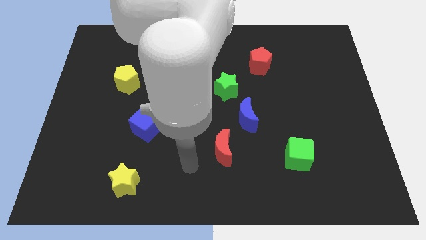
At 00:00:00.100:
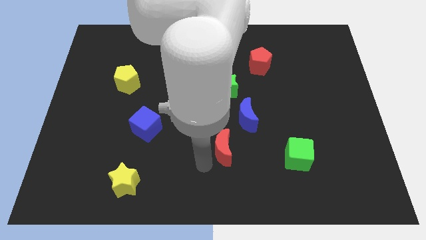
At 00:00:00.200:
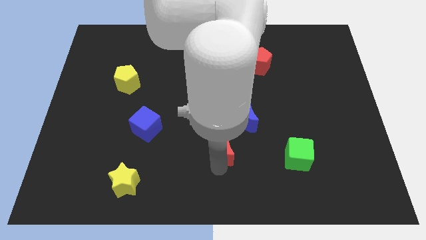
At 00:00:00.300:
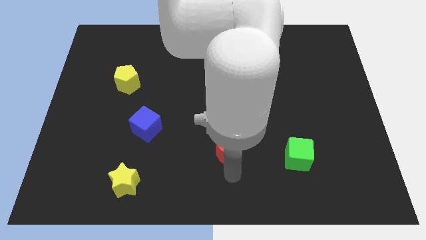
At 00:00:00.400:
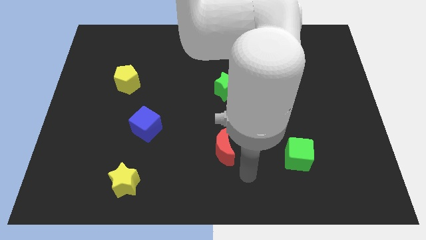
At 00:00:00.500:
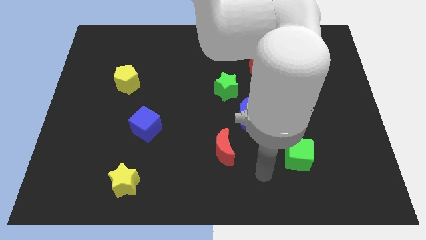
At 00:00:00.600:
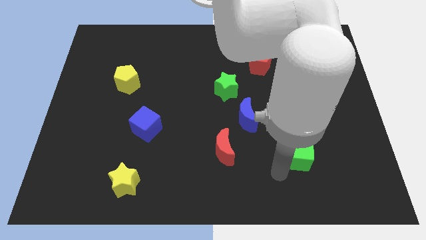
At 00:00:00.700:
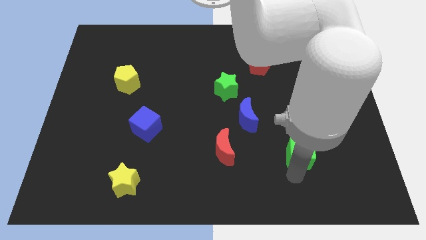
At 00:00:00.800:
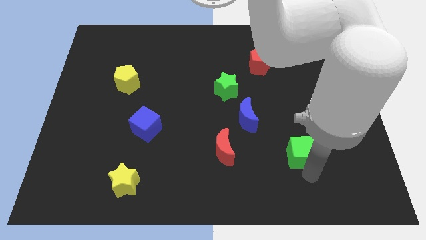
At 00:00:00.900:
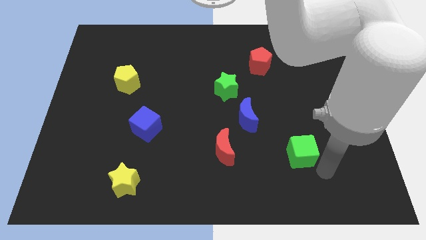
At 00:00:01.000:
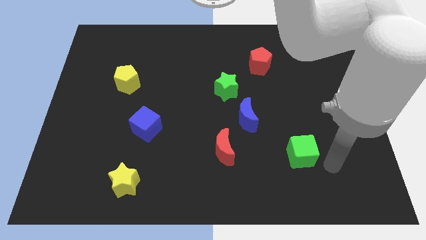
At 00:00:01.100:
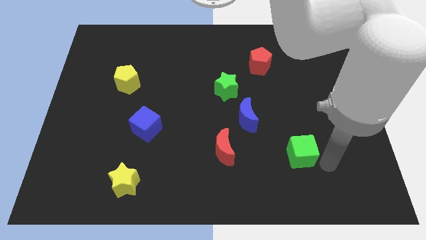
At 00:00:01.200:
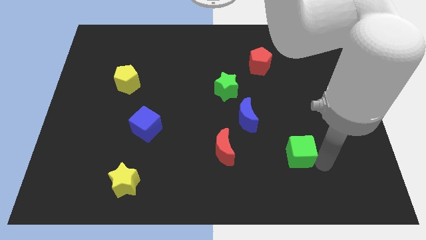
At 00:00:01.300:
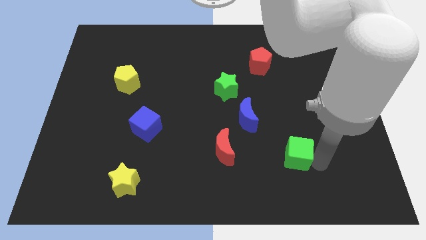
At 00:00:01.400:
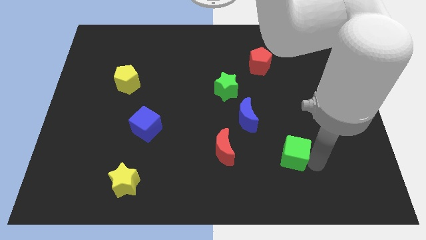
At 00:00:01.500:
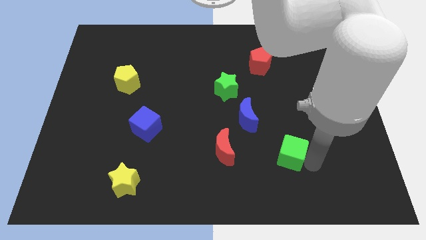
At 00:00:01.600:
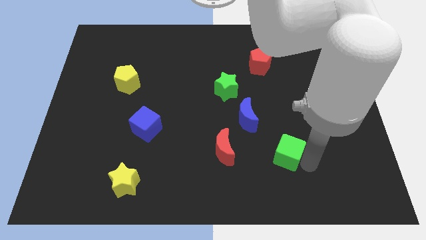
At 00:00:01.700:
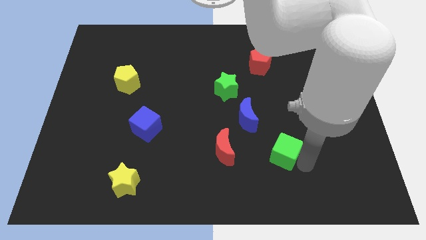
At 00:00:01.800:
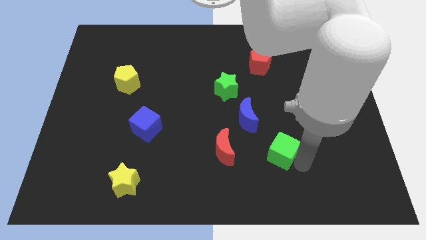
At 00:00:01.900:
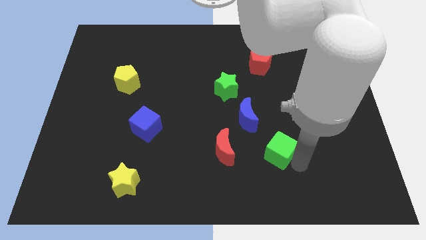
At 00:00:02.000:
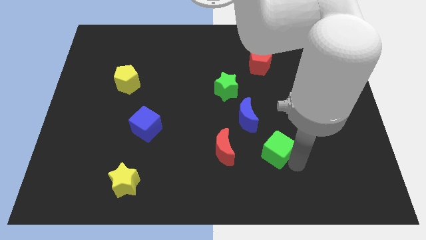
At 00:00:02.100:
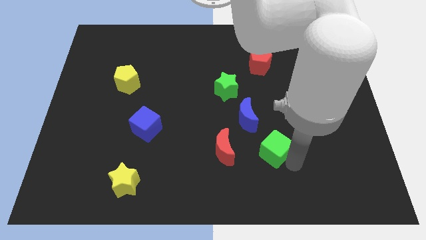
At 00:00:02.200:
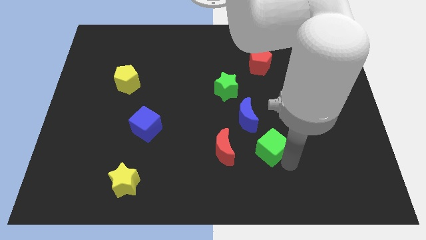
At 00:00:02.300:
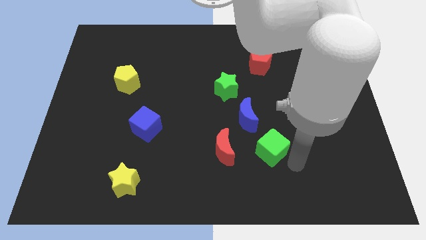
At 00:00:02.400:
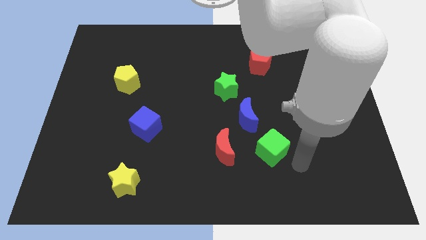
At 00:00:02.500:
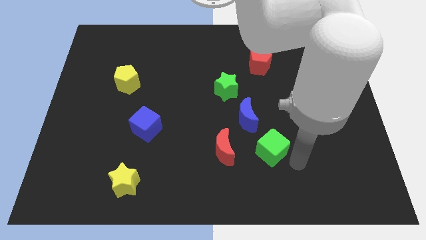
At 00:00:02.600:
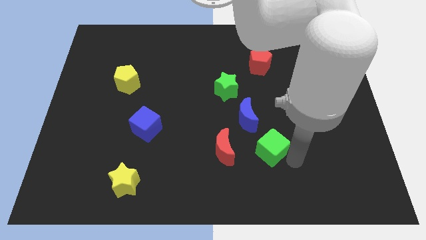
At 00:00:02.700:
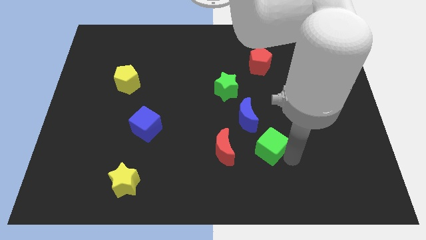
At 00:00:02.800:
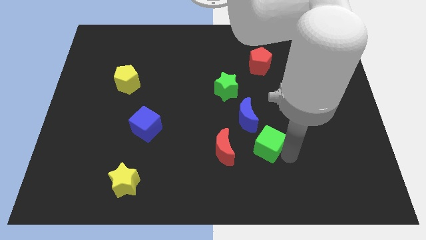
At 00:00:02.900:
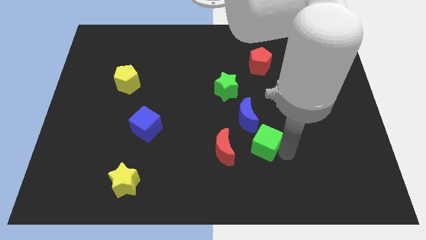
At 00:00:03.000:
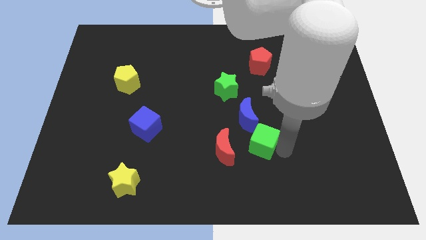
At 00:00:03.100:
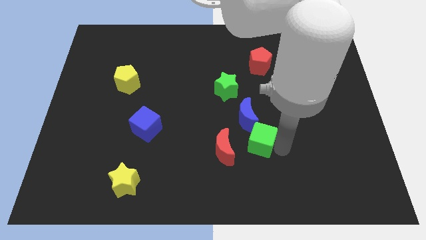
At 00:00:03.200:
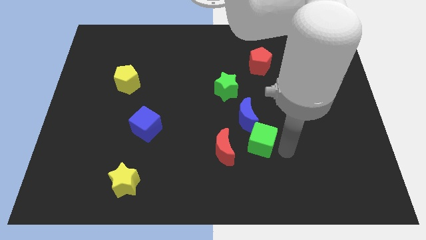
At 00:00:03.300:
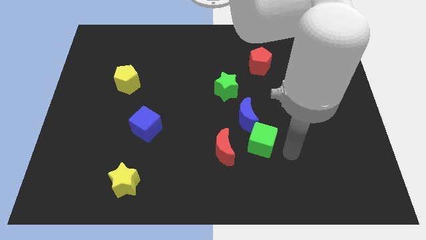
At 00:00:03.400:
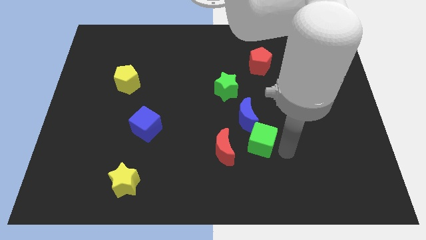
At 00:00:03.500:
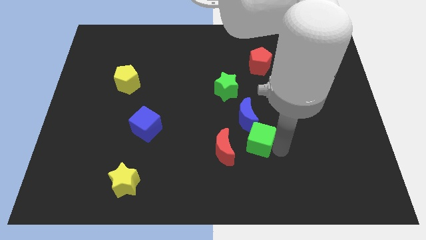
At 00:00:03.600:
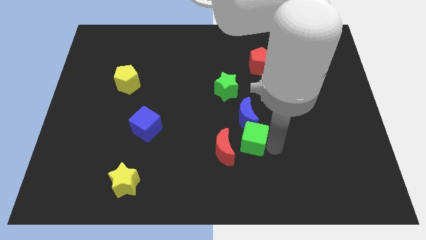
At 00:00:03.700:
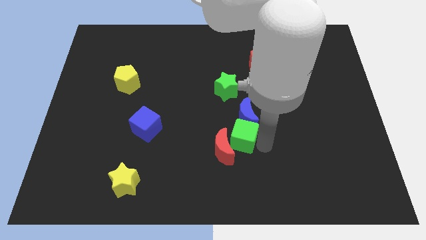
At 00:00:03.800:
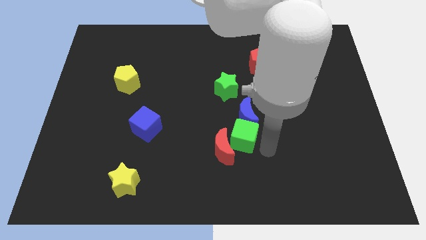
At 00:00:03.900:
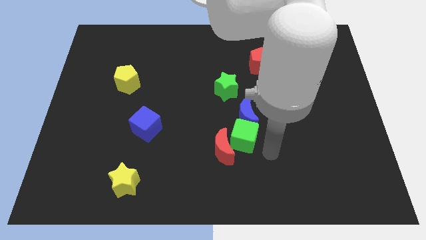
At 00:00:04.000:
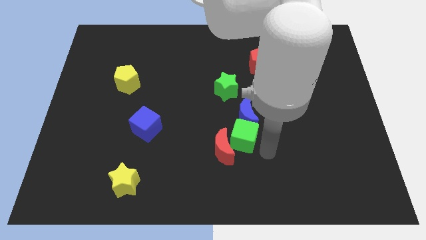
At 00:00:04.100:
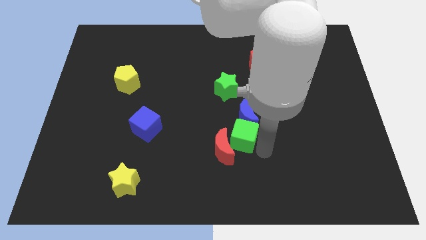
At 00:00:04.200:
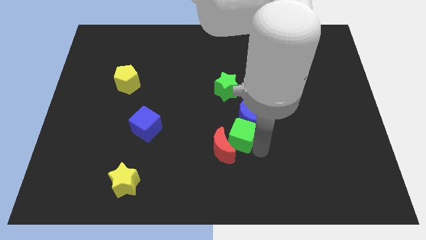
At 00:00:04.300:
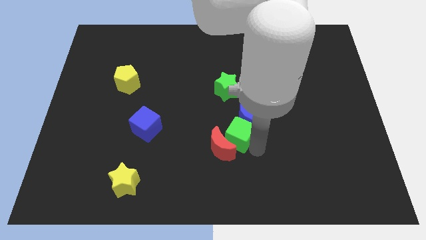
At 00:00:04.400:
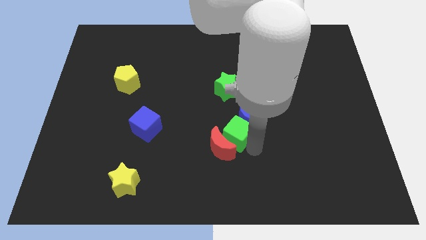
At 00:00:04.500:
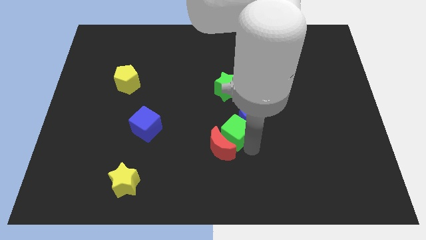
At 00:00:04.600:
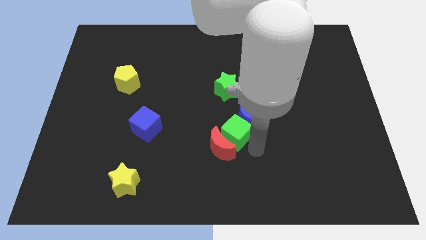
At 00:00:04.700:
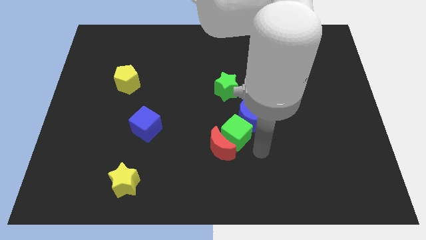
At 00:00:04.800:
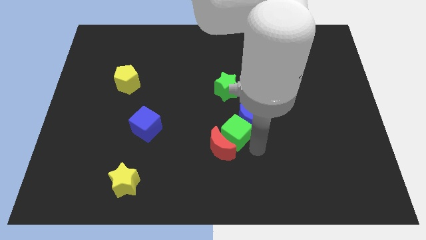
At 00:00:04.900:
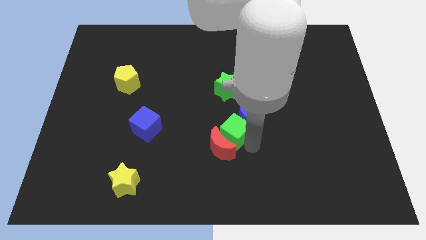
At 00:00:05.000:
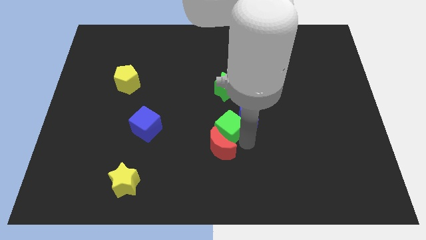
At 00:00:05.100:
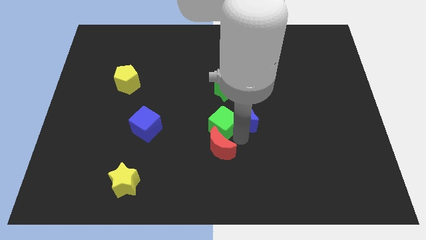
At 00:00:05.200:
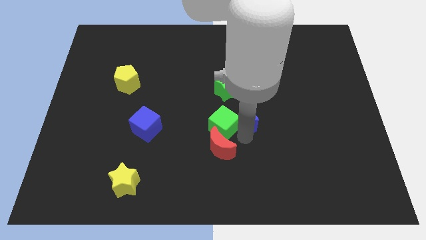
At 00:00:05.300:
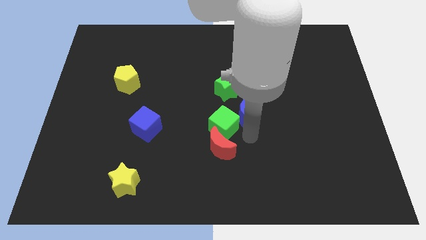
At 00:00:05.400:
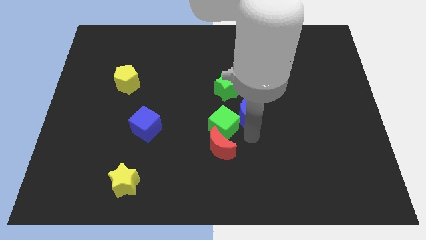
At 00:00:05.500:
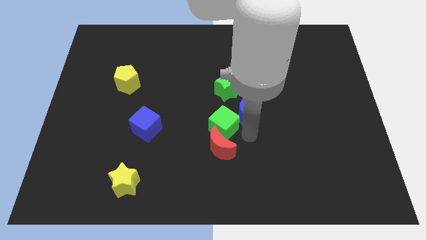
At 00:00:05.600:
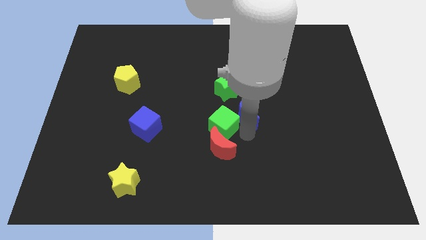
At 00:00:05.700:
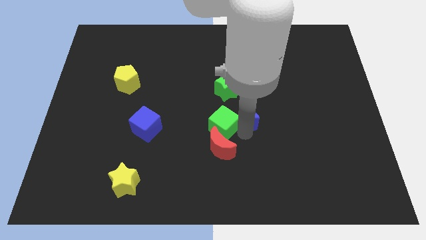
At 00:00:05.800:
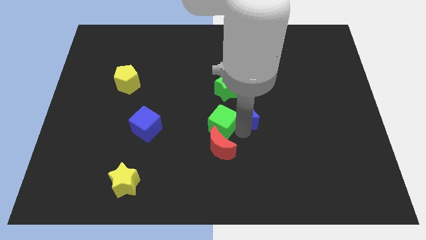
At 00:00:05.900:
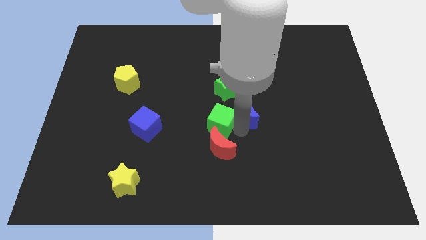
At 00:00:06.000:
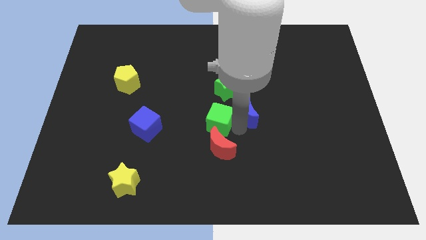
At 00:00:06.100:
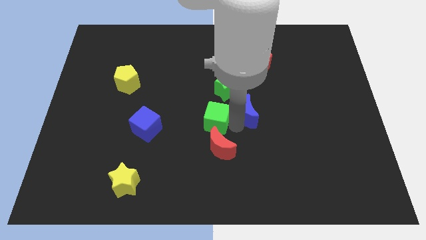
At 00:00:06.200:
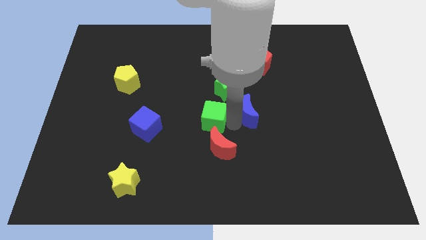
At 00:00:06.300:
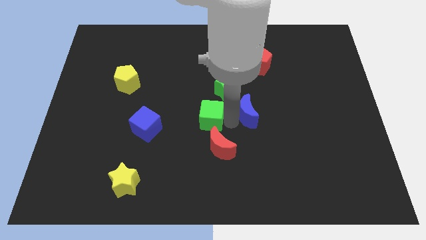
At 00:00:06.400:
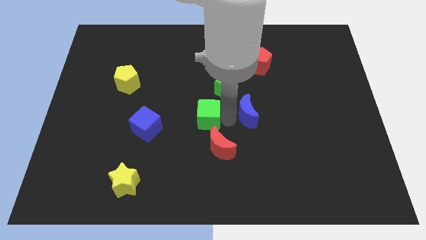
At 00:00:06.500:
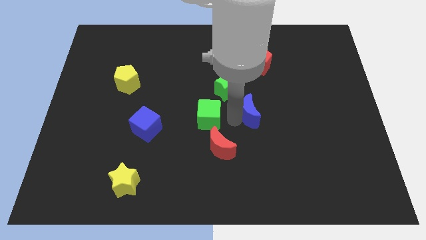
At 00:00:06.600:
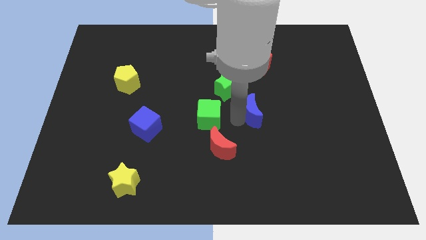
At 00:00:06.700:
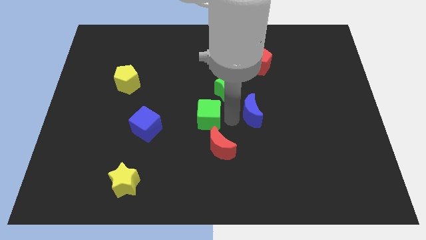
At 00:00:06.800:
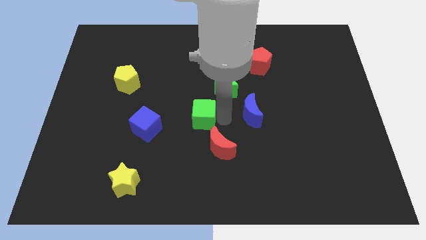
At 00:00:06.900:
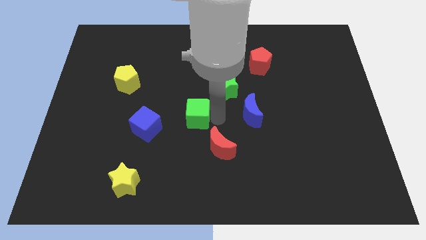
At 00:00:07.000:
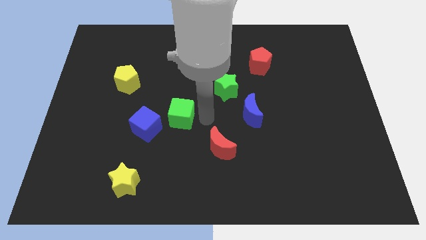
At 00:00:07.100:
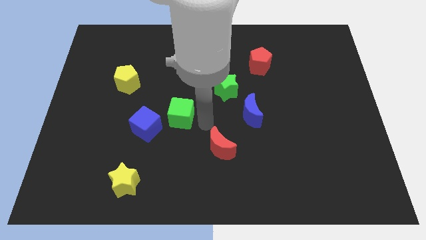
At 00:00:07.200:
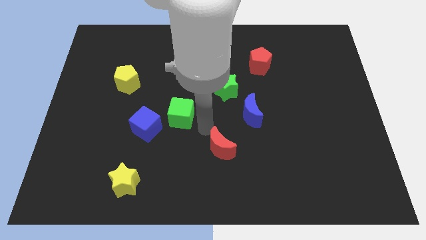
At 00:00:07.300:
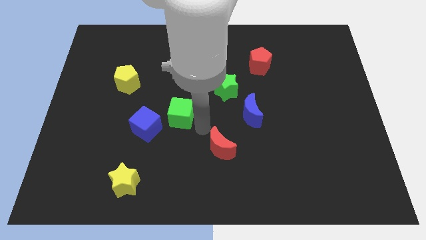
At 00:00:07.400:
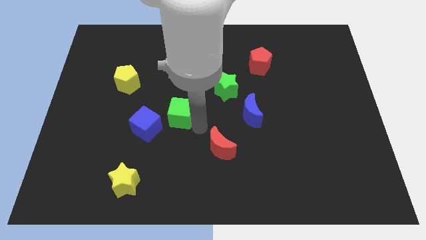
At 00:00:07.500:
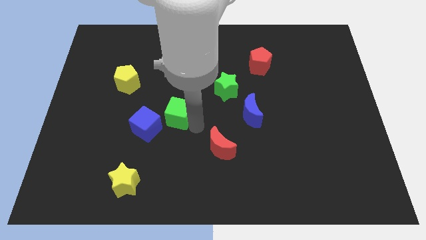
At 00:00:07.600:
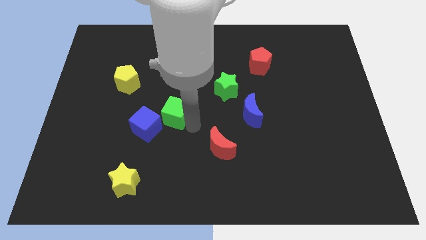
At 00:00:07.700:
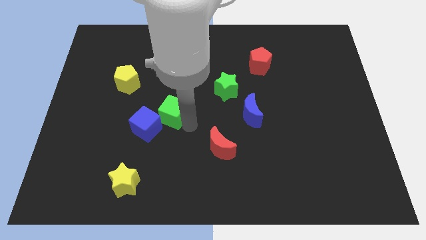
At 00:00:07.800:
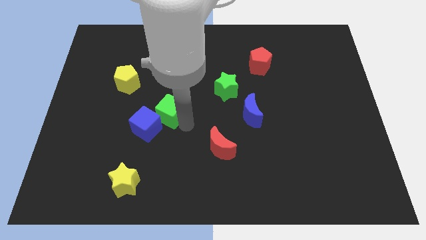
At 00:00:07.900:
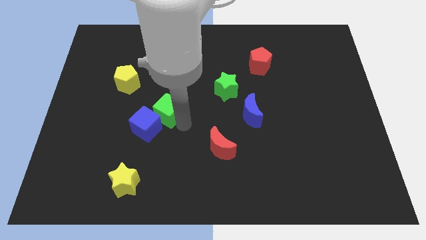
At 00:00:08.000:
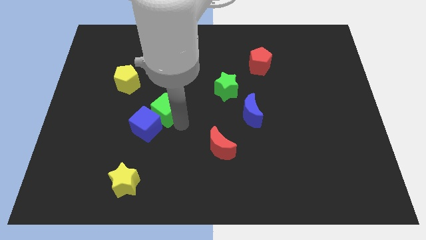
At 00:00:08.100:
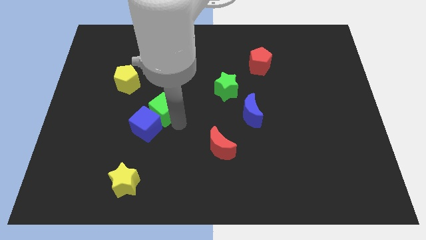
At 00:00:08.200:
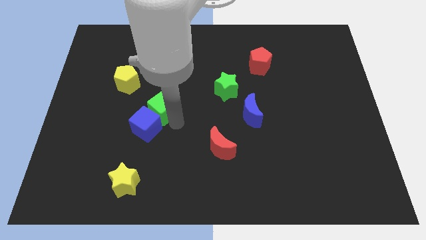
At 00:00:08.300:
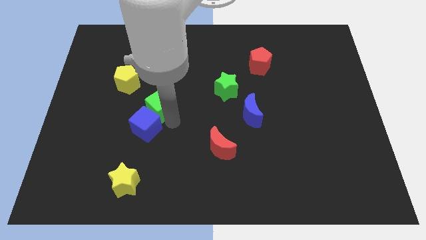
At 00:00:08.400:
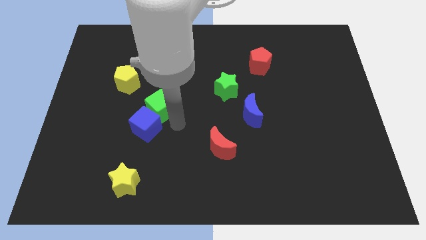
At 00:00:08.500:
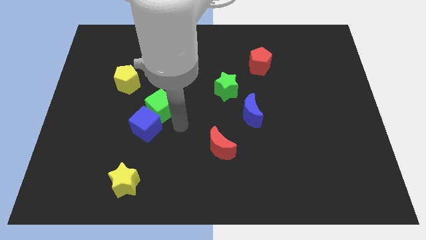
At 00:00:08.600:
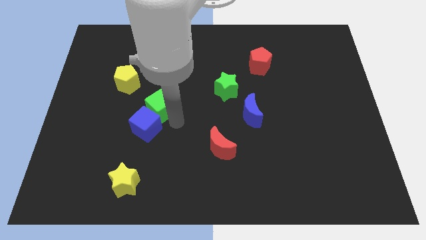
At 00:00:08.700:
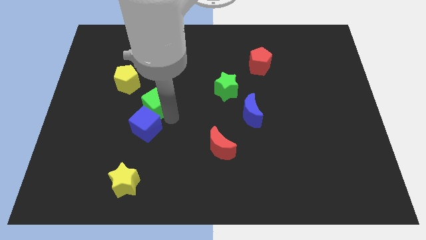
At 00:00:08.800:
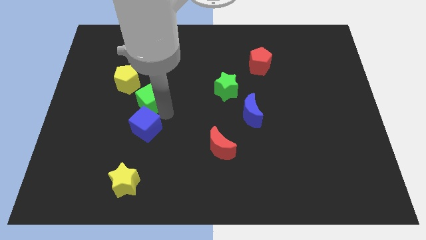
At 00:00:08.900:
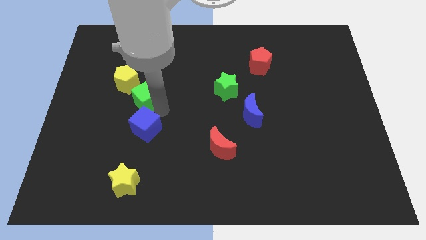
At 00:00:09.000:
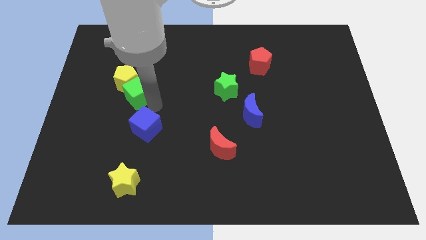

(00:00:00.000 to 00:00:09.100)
push the green cube next to the yellow pentagon
